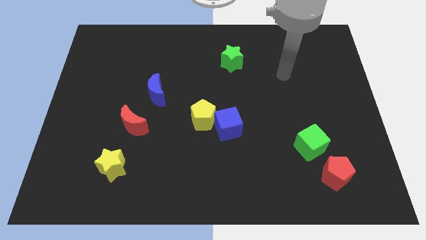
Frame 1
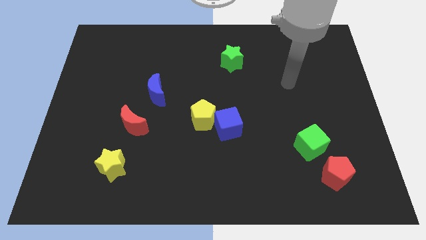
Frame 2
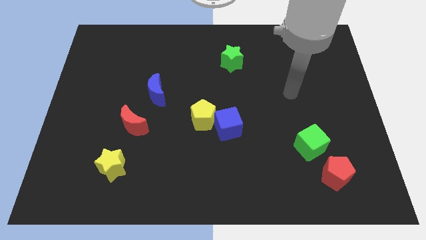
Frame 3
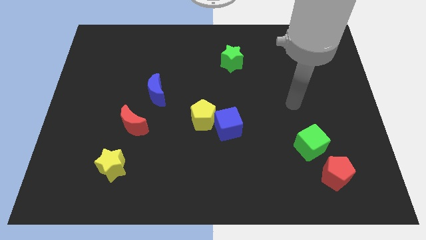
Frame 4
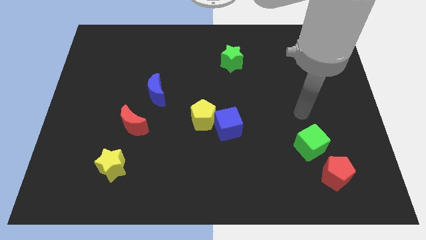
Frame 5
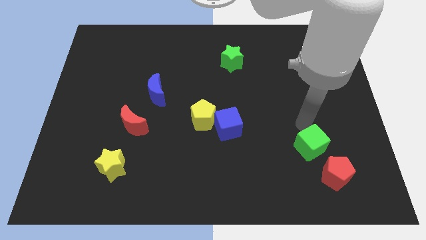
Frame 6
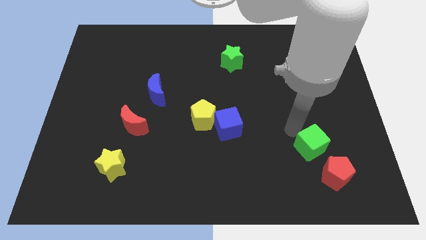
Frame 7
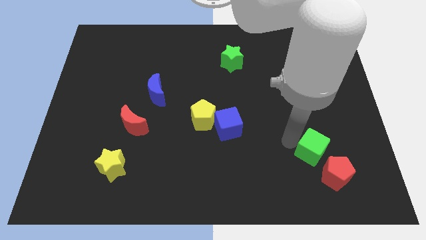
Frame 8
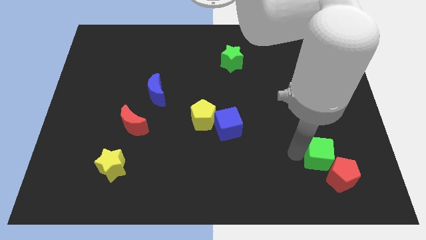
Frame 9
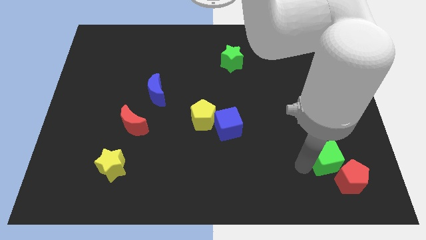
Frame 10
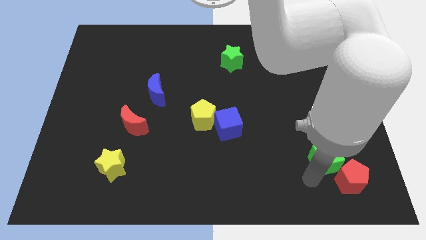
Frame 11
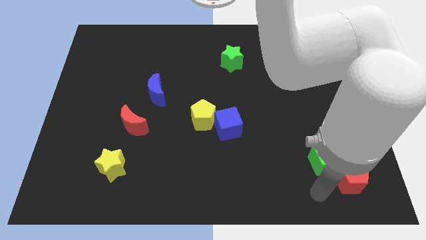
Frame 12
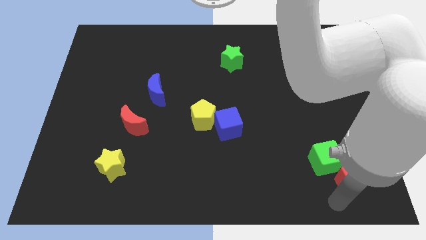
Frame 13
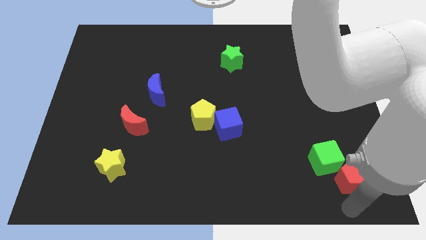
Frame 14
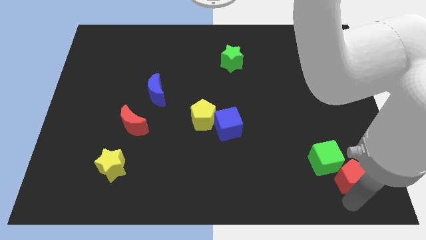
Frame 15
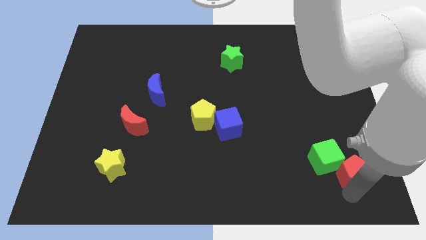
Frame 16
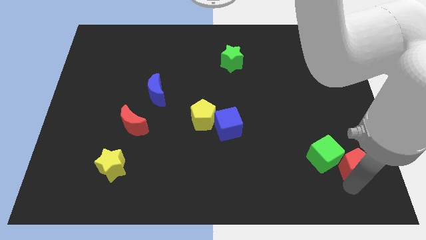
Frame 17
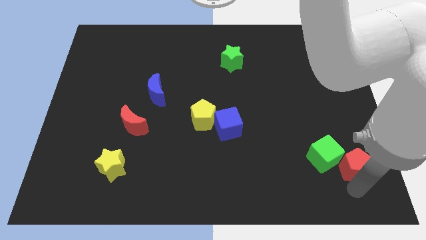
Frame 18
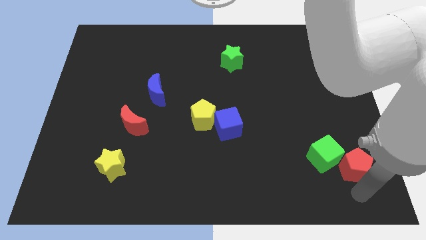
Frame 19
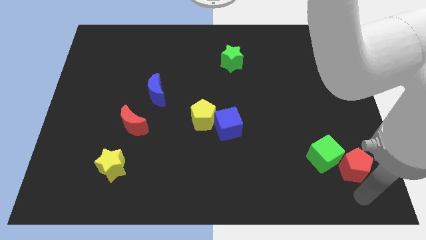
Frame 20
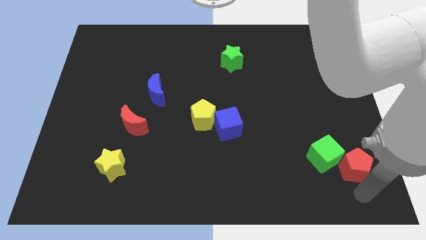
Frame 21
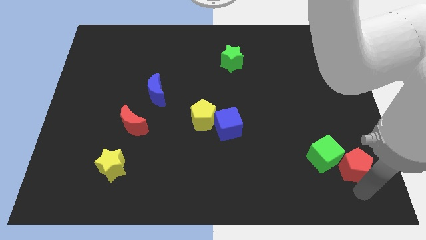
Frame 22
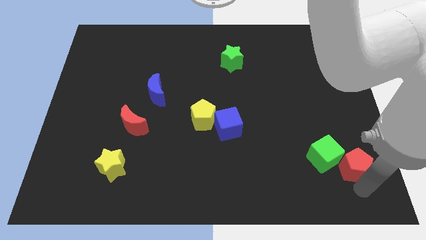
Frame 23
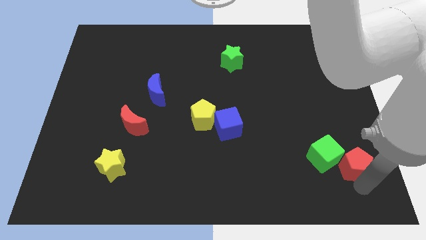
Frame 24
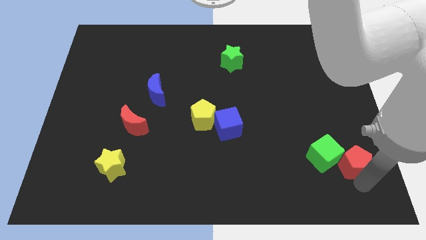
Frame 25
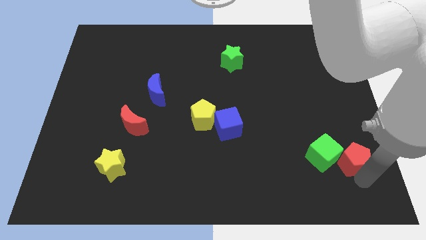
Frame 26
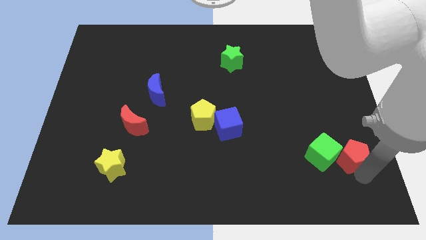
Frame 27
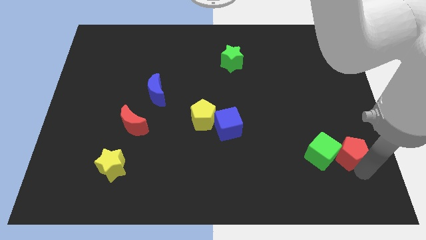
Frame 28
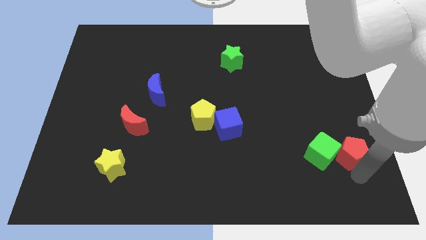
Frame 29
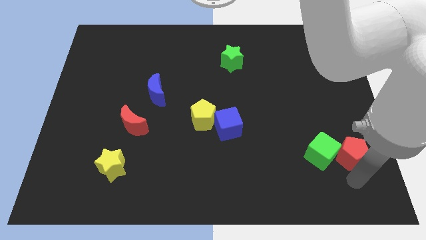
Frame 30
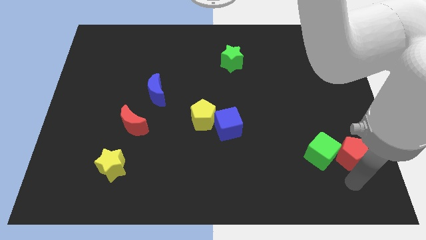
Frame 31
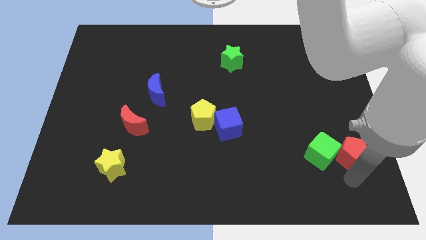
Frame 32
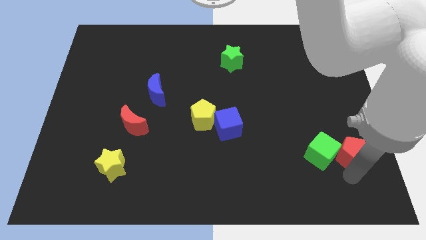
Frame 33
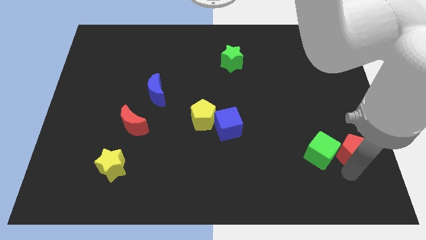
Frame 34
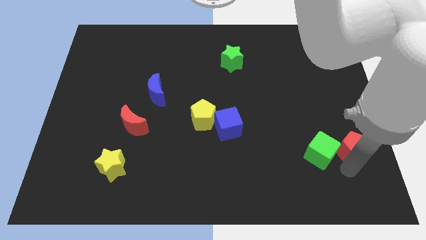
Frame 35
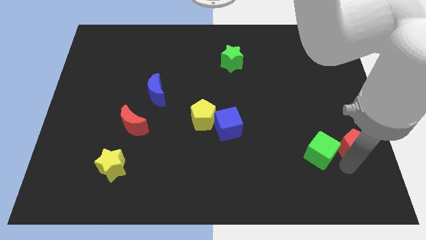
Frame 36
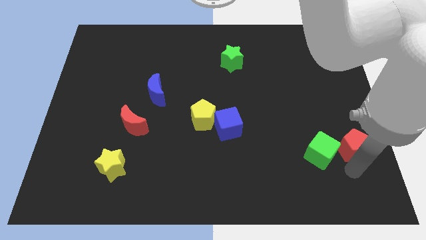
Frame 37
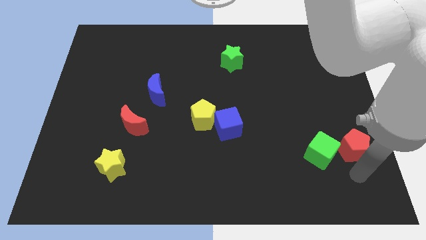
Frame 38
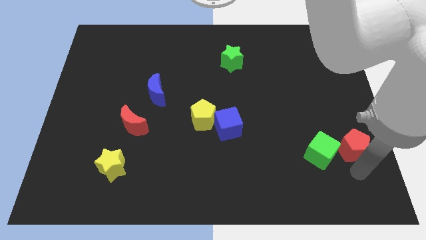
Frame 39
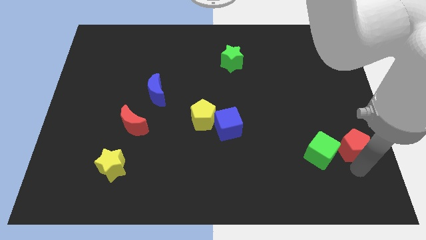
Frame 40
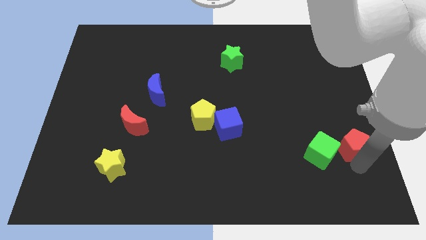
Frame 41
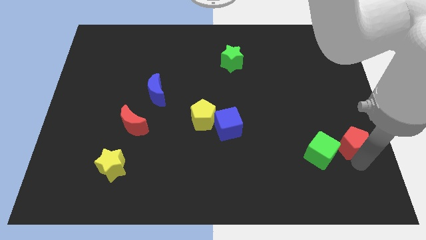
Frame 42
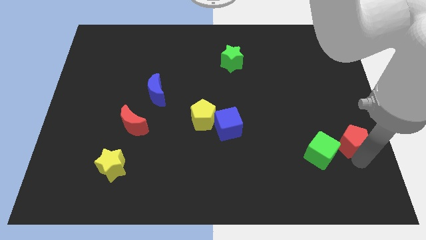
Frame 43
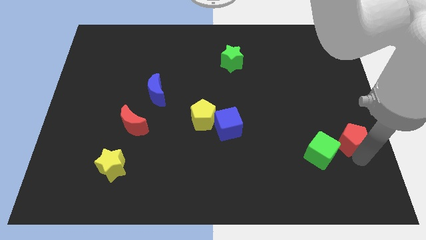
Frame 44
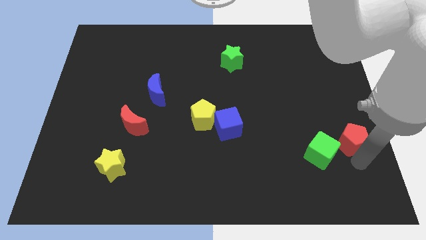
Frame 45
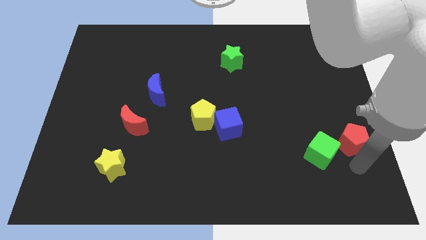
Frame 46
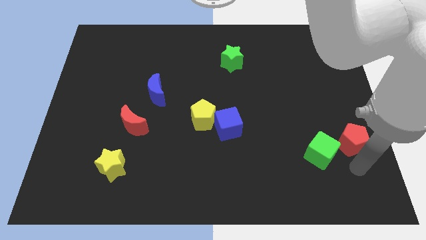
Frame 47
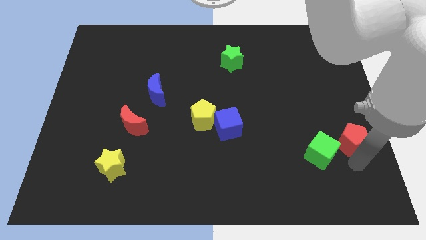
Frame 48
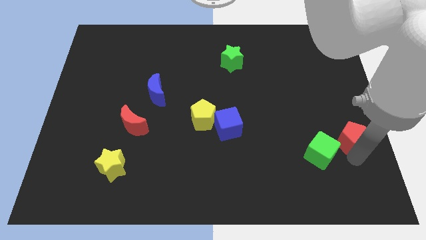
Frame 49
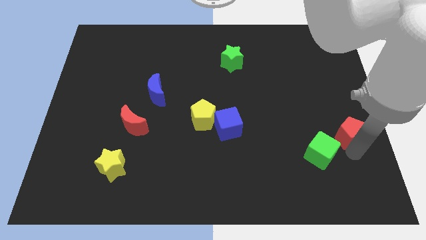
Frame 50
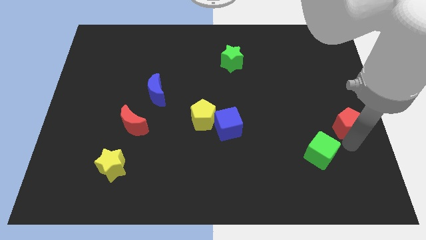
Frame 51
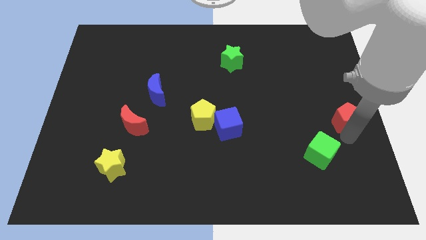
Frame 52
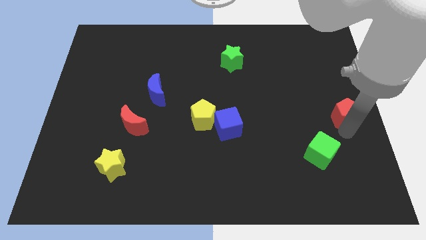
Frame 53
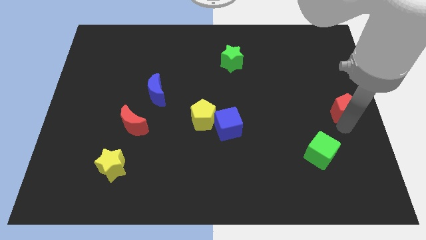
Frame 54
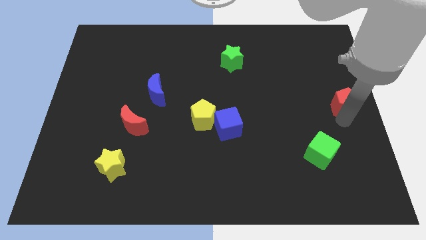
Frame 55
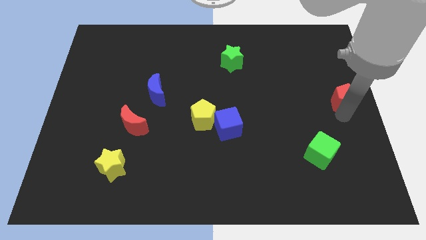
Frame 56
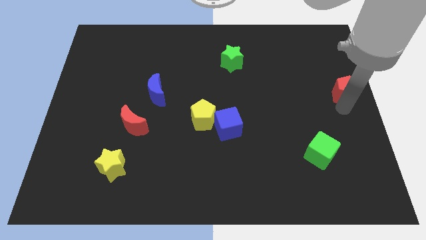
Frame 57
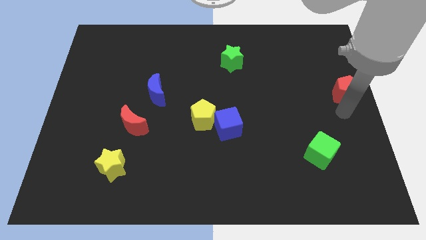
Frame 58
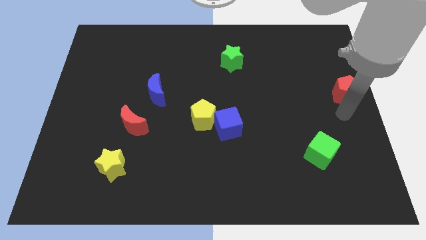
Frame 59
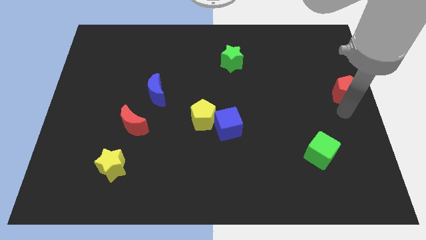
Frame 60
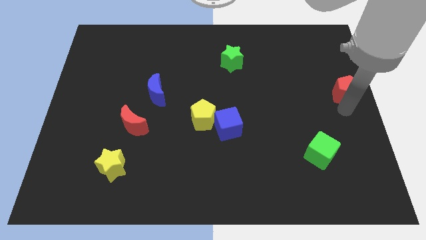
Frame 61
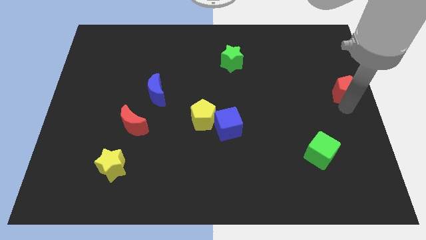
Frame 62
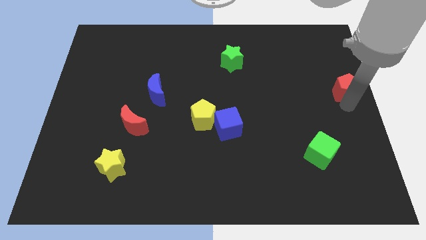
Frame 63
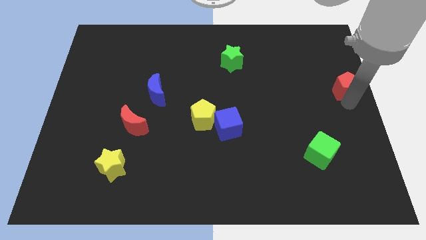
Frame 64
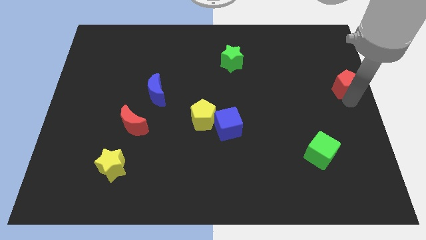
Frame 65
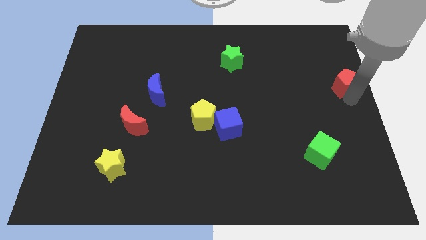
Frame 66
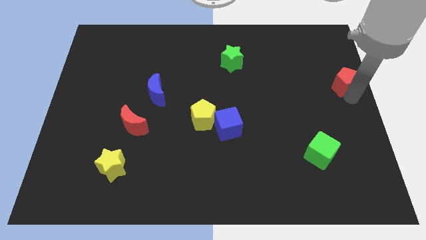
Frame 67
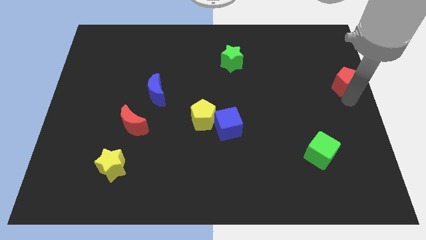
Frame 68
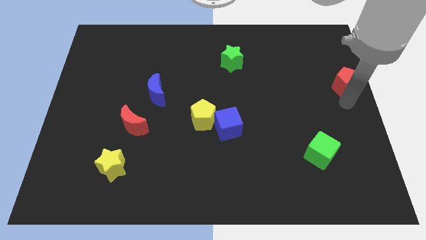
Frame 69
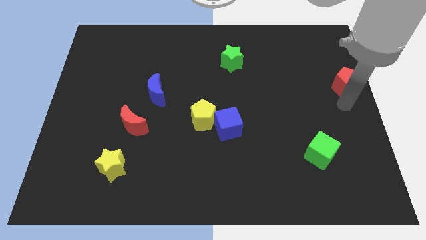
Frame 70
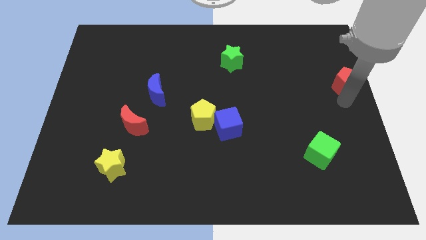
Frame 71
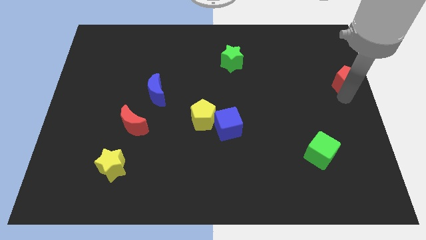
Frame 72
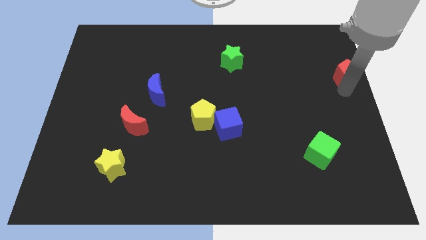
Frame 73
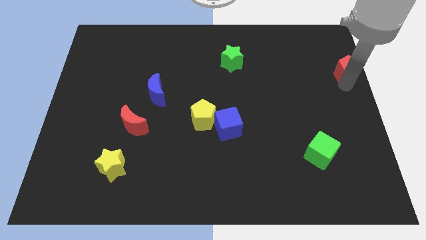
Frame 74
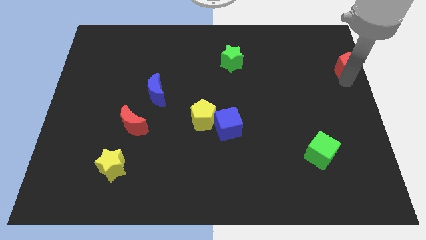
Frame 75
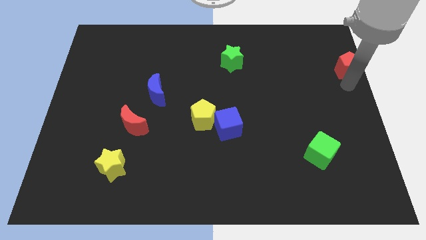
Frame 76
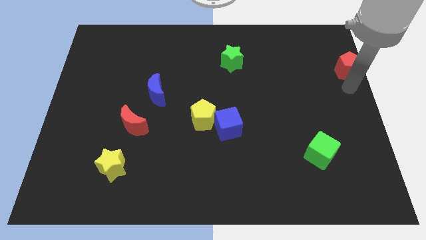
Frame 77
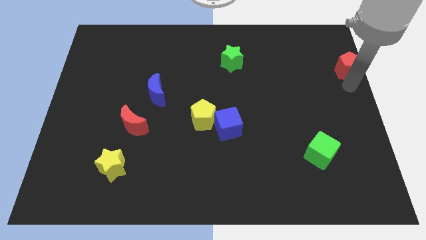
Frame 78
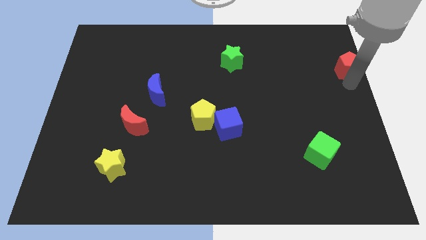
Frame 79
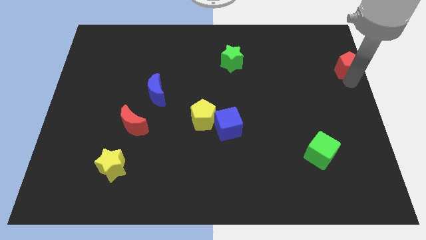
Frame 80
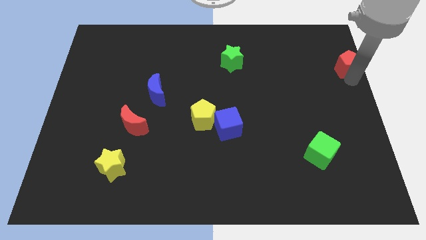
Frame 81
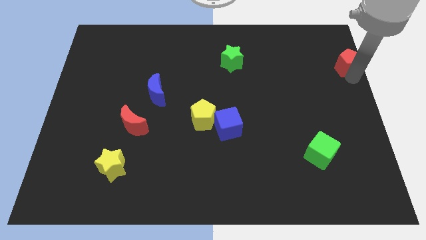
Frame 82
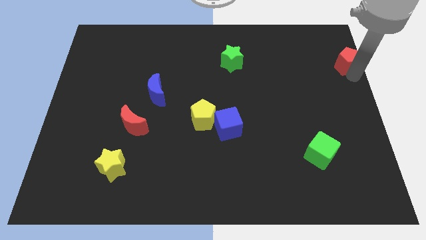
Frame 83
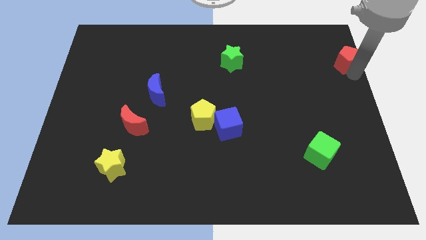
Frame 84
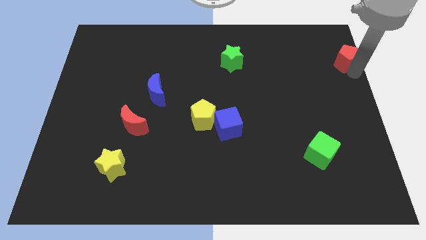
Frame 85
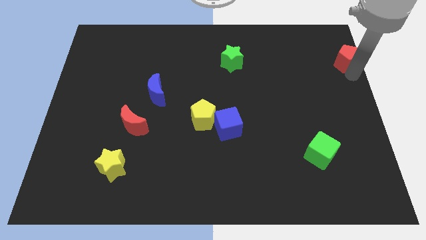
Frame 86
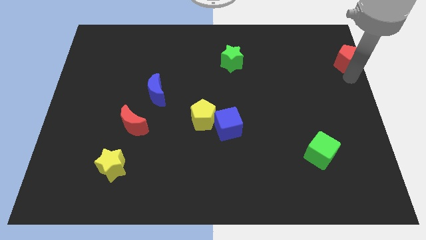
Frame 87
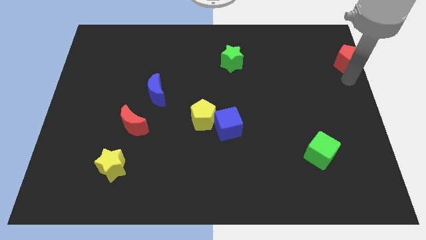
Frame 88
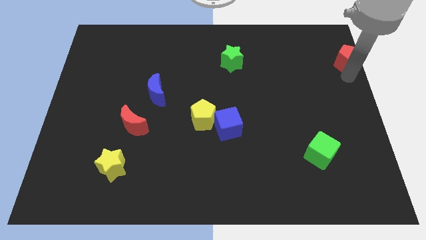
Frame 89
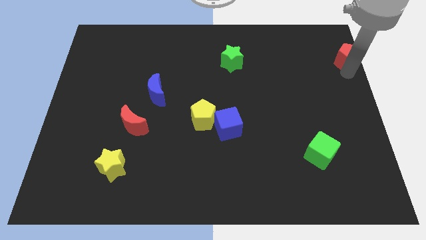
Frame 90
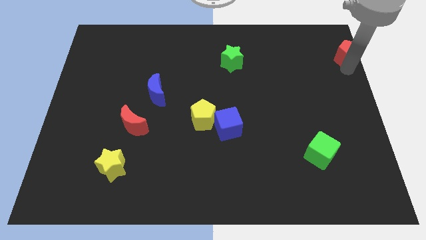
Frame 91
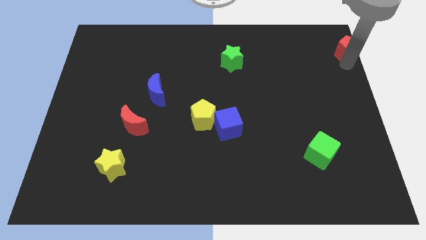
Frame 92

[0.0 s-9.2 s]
put the red pentagon to the top right corner
